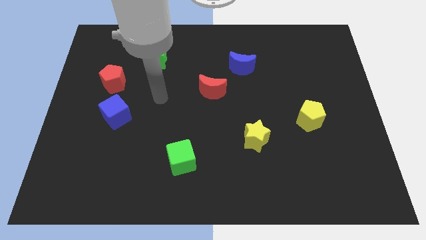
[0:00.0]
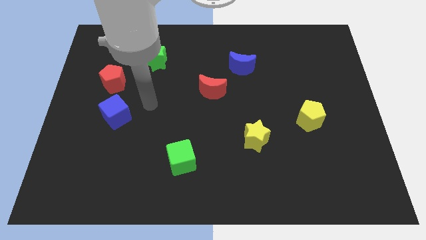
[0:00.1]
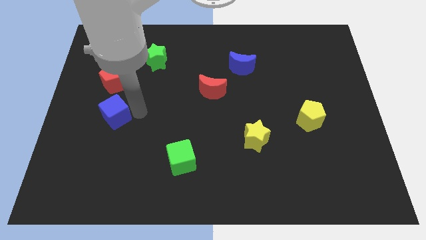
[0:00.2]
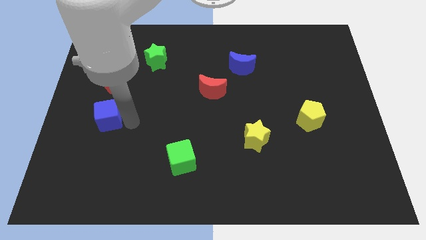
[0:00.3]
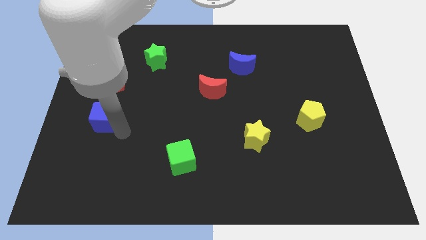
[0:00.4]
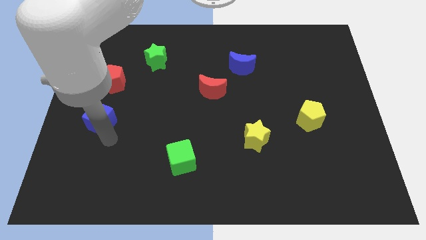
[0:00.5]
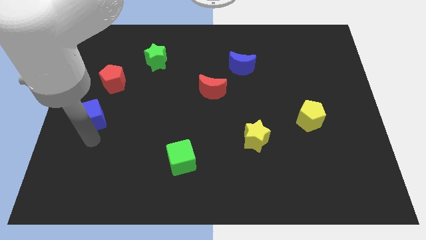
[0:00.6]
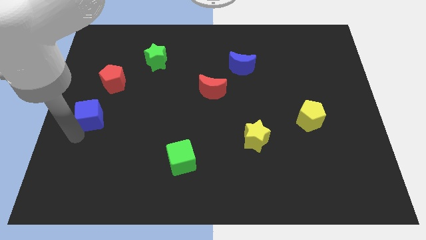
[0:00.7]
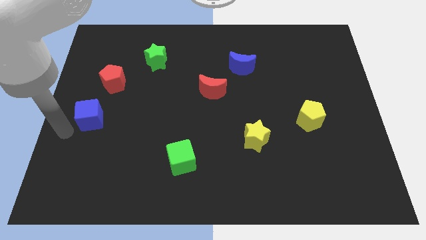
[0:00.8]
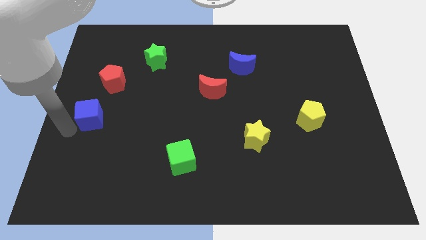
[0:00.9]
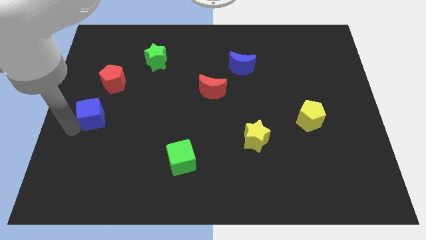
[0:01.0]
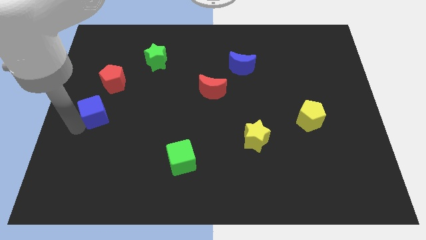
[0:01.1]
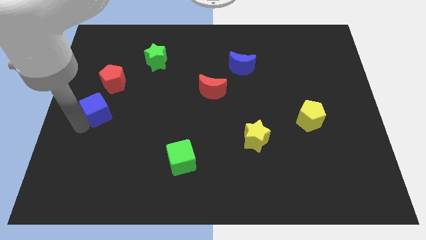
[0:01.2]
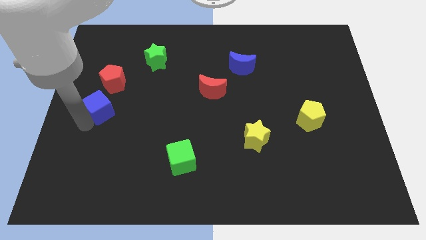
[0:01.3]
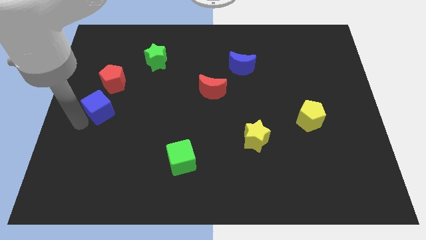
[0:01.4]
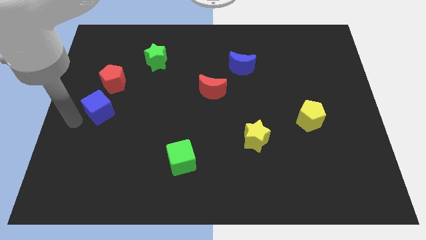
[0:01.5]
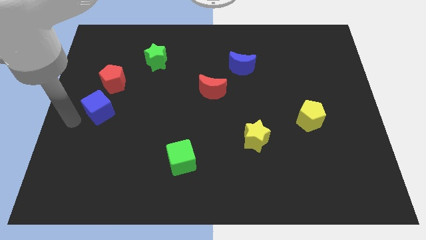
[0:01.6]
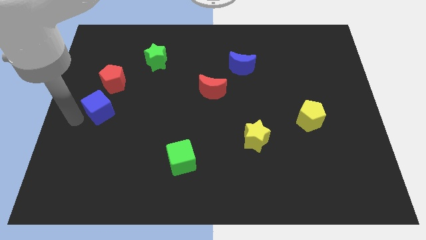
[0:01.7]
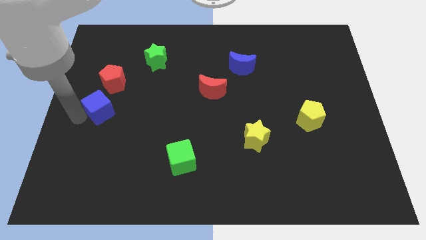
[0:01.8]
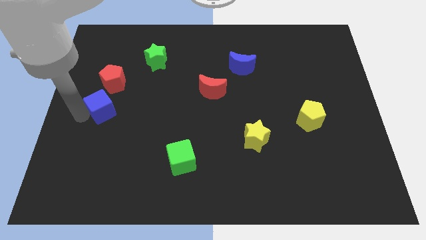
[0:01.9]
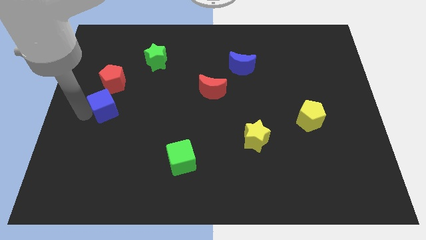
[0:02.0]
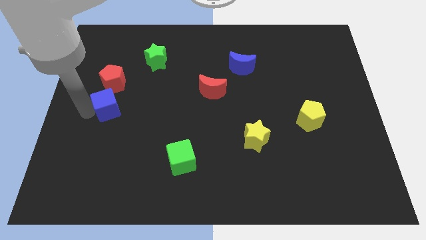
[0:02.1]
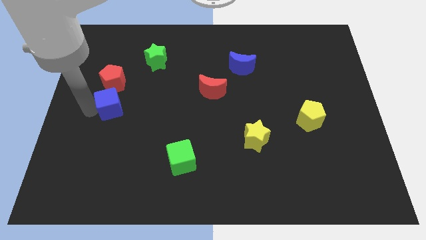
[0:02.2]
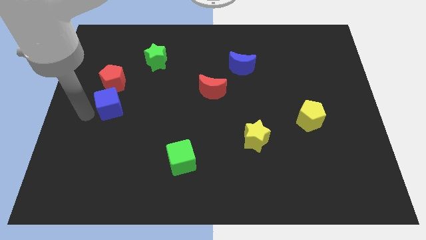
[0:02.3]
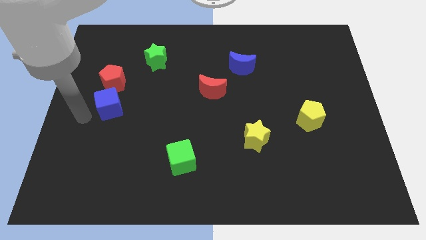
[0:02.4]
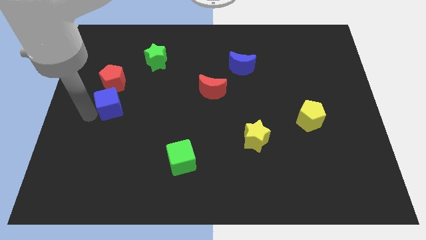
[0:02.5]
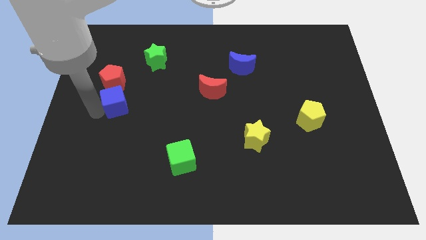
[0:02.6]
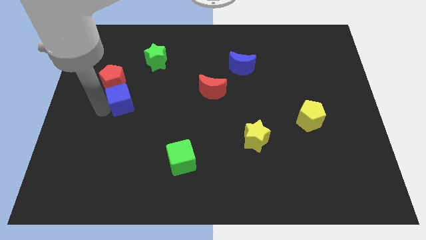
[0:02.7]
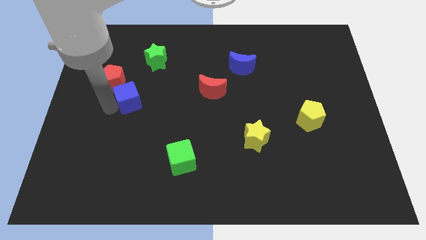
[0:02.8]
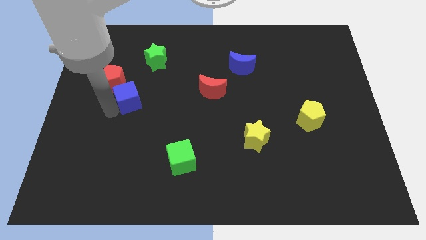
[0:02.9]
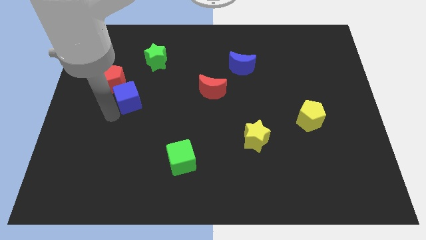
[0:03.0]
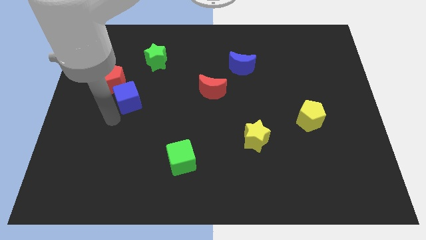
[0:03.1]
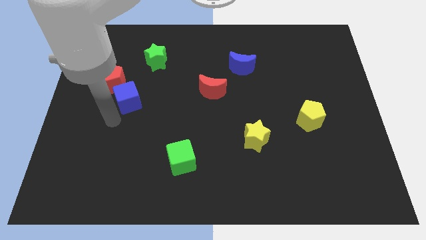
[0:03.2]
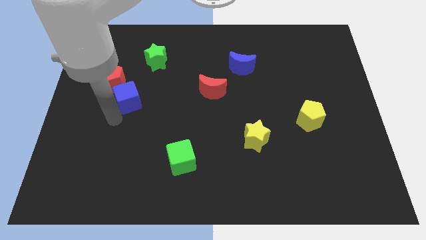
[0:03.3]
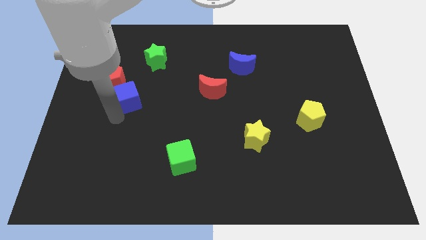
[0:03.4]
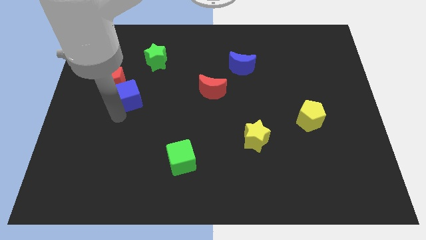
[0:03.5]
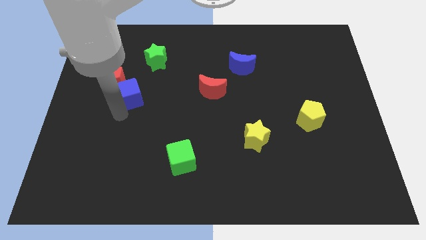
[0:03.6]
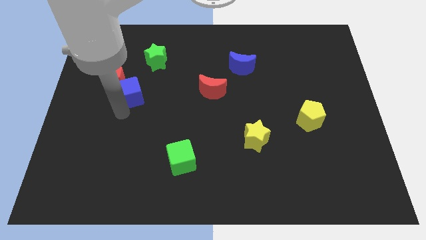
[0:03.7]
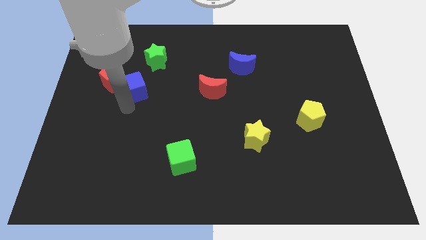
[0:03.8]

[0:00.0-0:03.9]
move the blue cube somewhat upwards

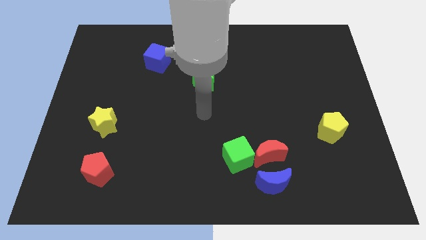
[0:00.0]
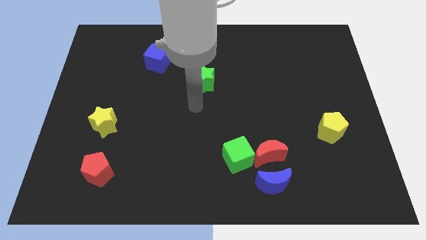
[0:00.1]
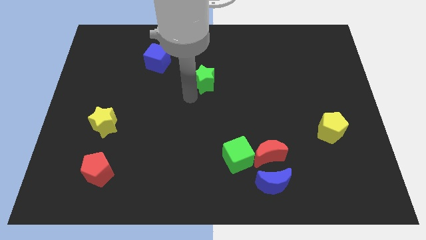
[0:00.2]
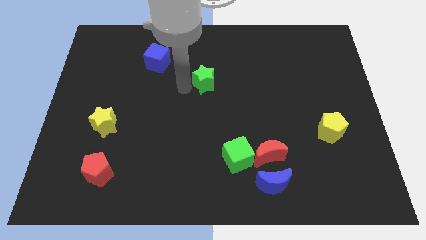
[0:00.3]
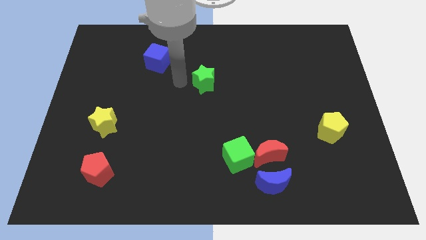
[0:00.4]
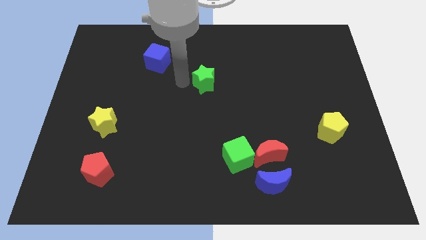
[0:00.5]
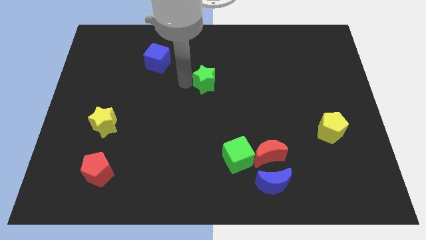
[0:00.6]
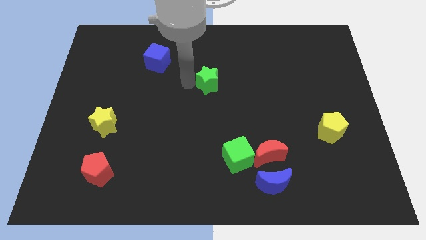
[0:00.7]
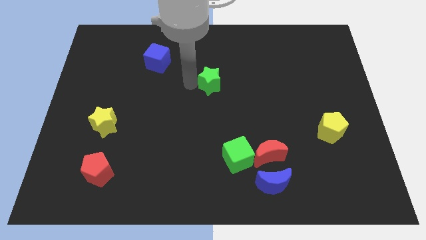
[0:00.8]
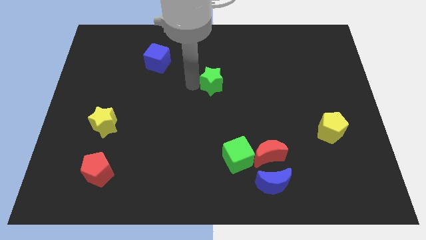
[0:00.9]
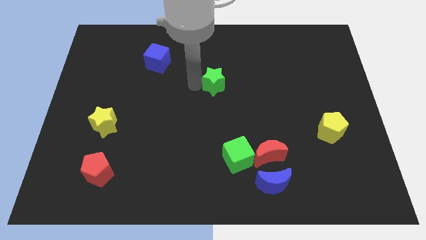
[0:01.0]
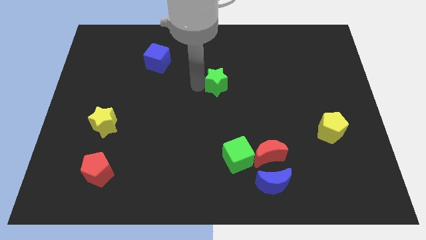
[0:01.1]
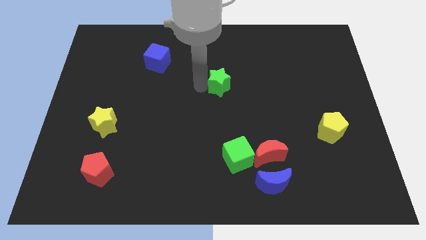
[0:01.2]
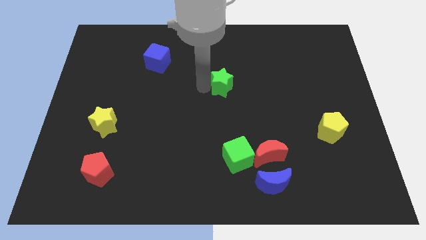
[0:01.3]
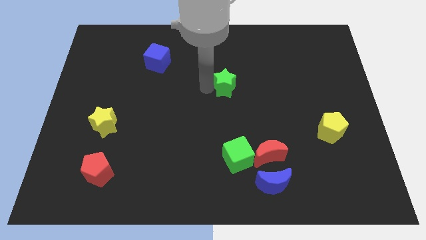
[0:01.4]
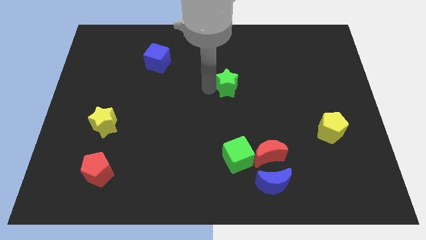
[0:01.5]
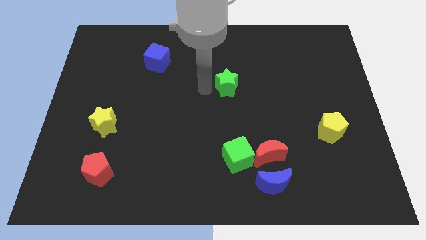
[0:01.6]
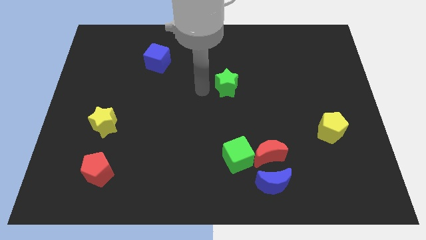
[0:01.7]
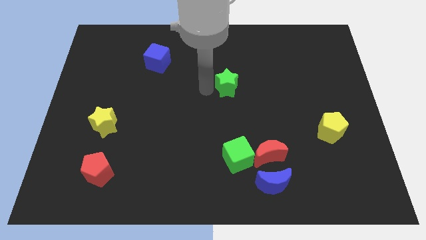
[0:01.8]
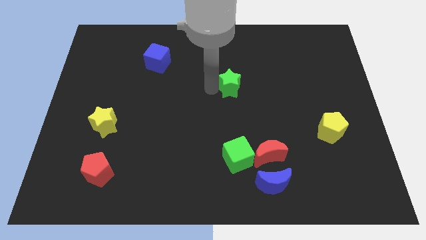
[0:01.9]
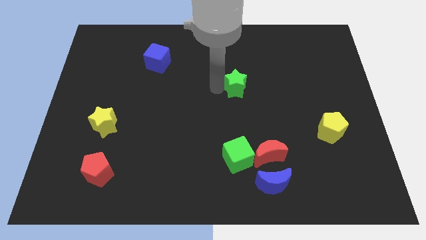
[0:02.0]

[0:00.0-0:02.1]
slide the green star to the right slightly

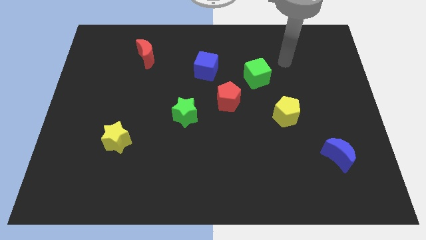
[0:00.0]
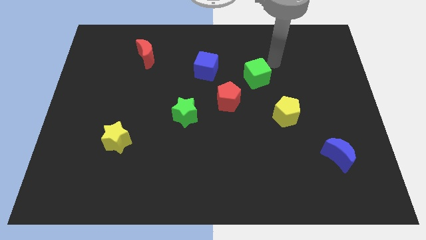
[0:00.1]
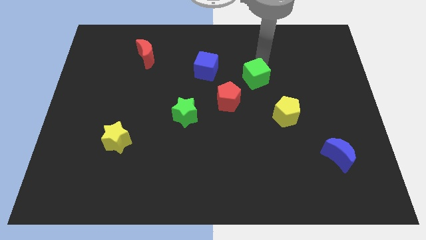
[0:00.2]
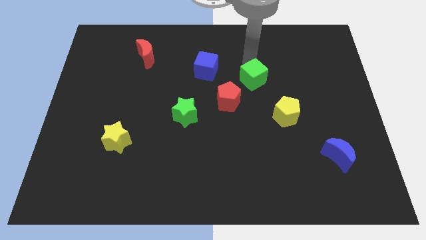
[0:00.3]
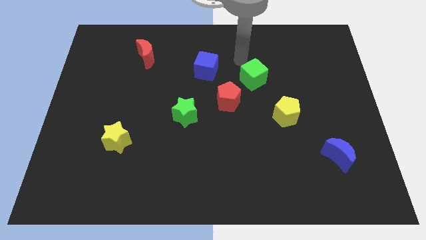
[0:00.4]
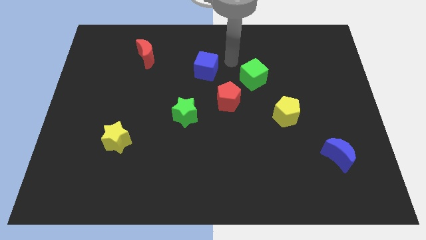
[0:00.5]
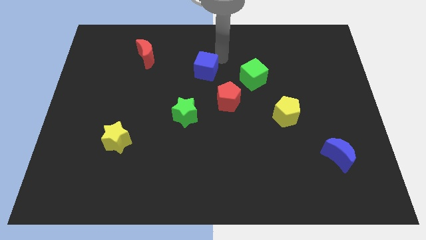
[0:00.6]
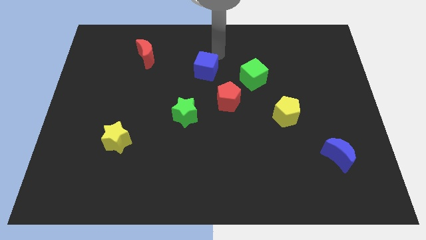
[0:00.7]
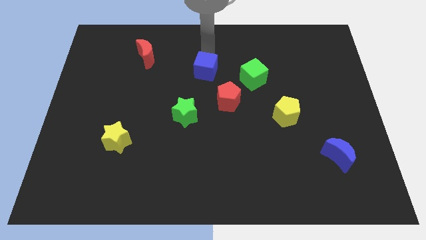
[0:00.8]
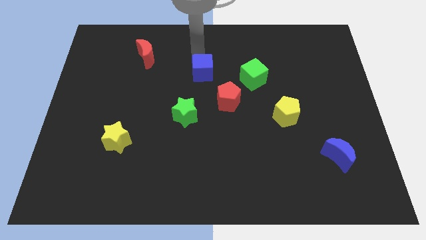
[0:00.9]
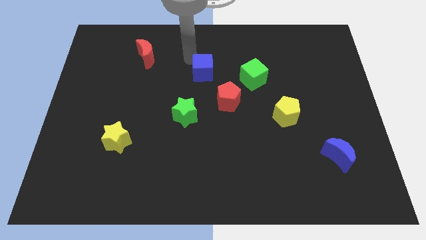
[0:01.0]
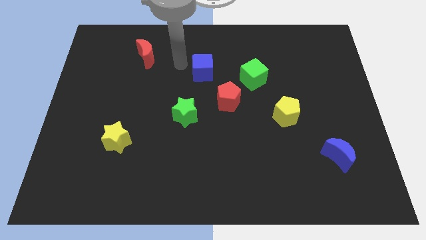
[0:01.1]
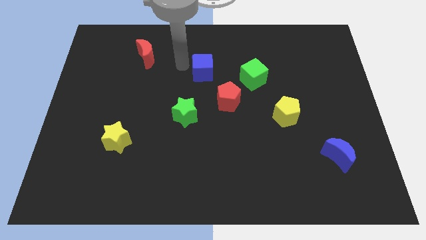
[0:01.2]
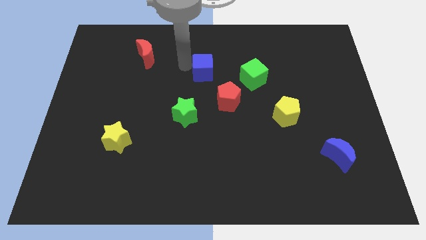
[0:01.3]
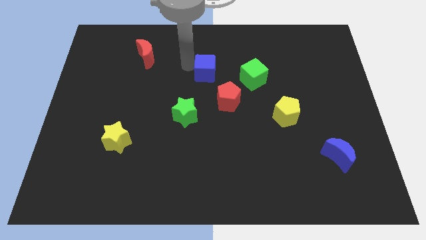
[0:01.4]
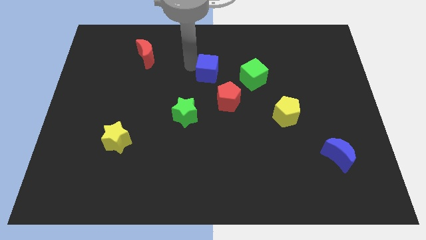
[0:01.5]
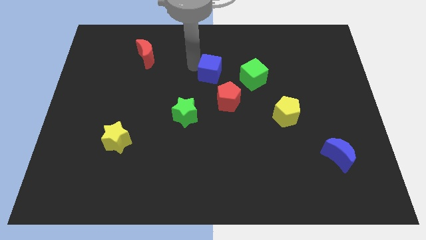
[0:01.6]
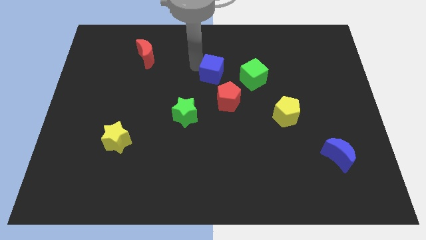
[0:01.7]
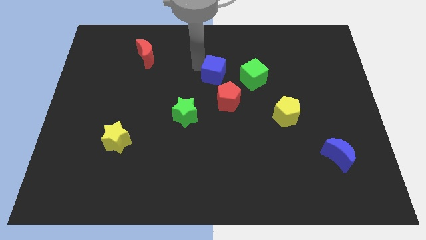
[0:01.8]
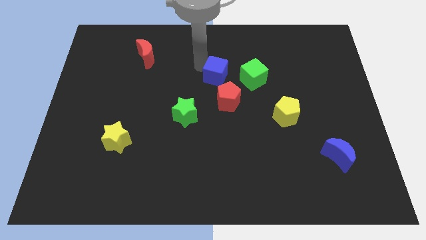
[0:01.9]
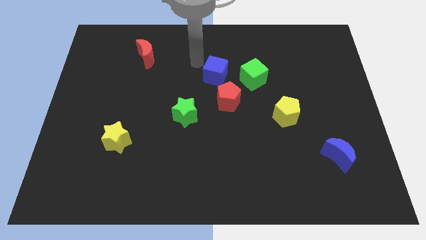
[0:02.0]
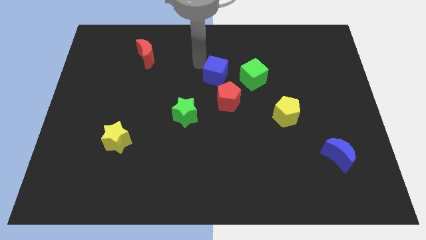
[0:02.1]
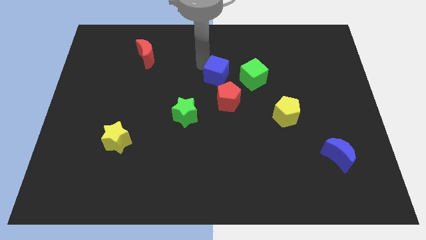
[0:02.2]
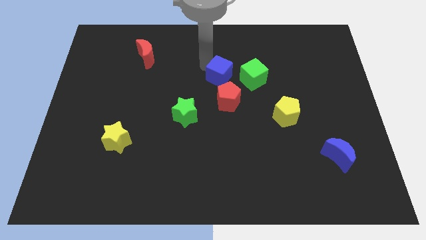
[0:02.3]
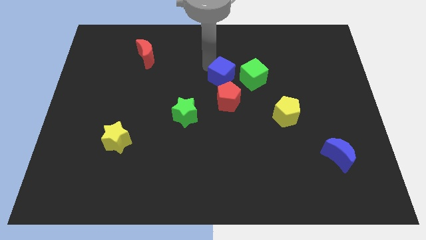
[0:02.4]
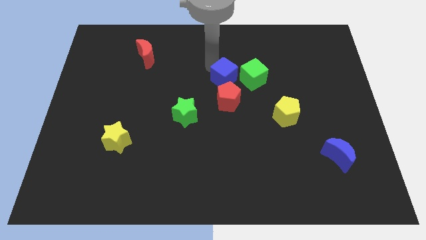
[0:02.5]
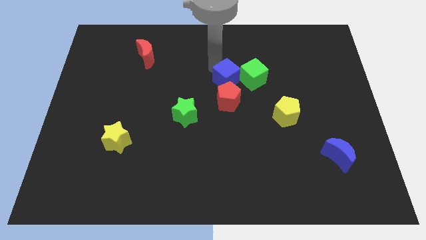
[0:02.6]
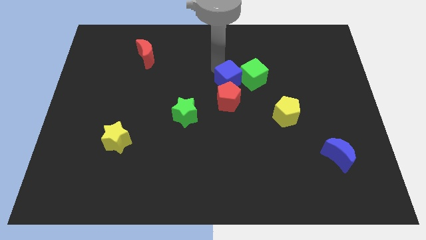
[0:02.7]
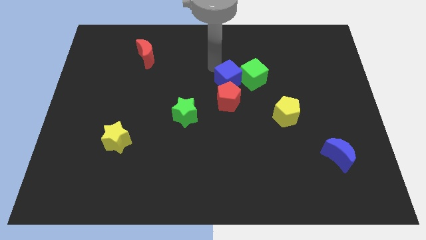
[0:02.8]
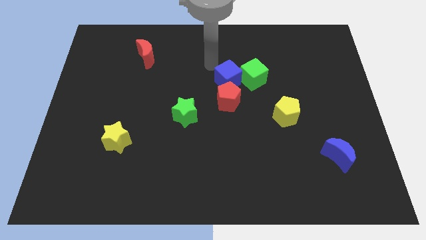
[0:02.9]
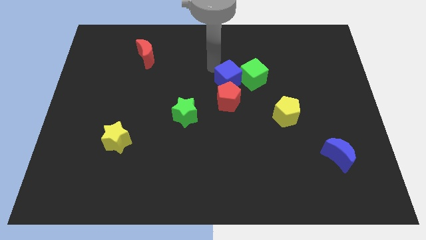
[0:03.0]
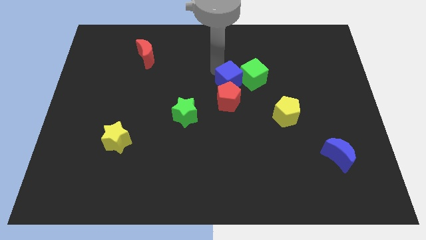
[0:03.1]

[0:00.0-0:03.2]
move the blue cube downwards and right diagonally a bit
